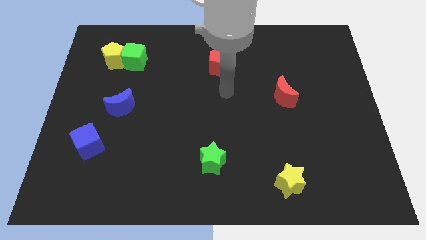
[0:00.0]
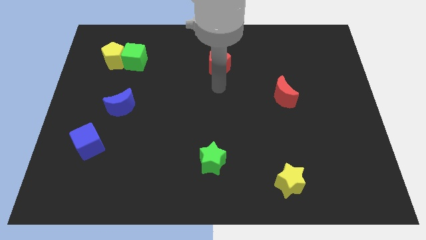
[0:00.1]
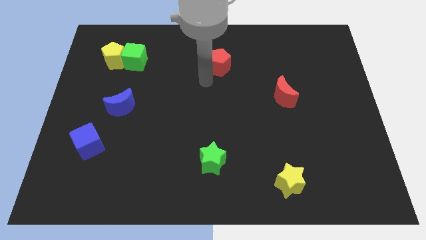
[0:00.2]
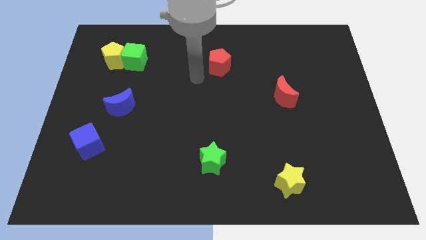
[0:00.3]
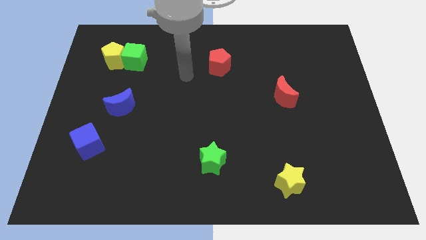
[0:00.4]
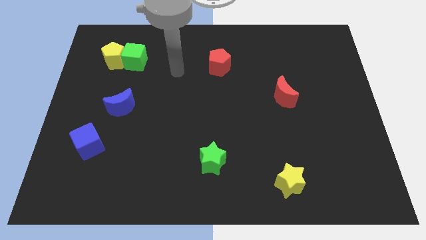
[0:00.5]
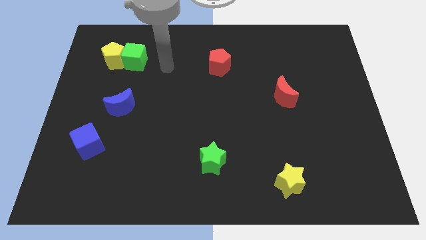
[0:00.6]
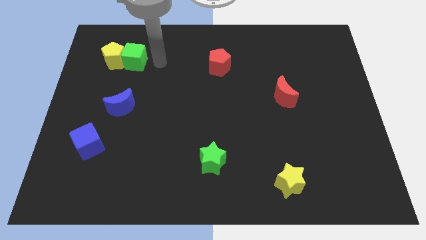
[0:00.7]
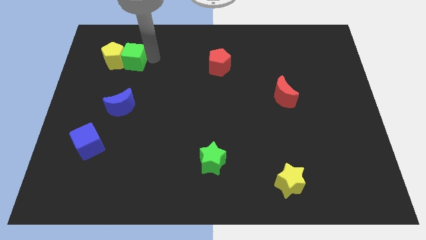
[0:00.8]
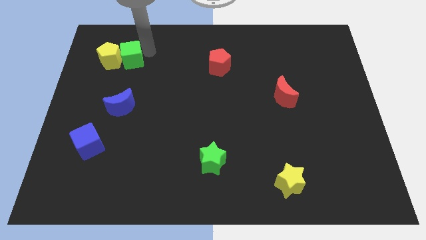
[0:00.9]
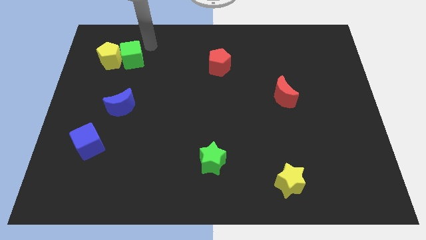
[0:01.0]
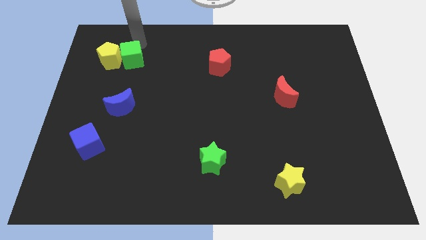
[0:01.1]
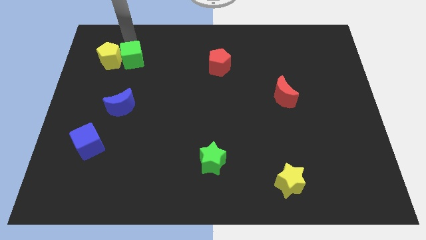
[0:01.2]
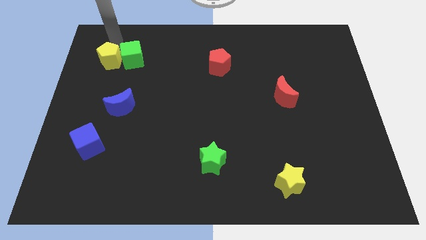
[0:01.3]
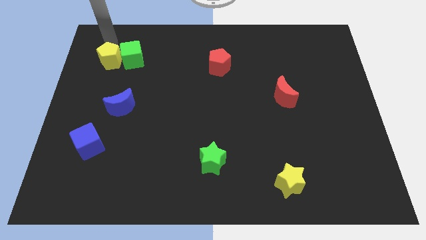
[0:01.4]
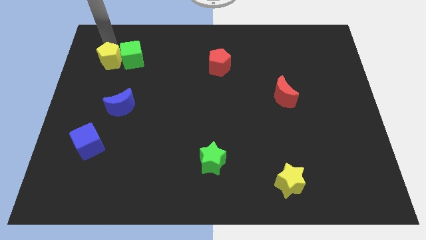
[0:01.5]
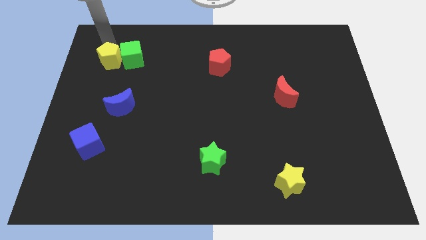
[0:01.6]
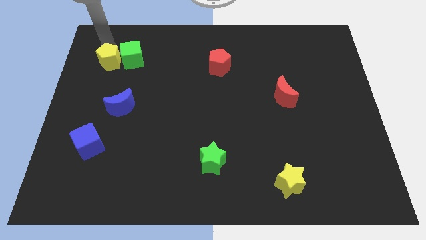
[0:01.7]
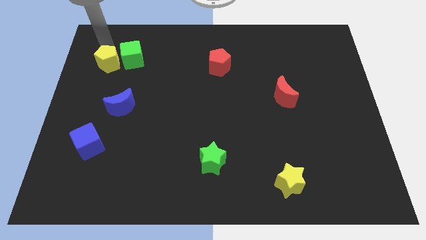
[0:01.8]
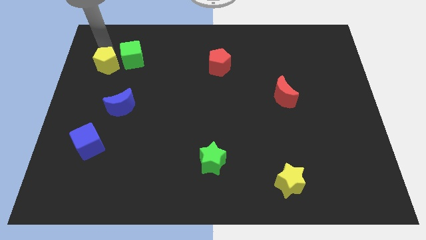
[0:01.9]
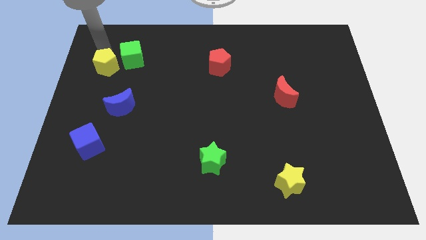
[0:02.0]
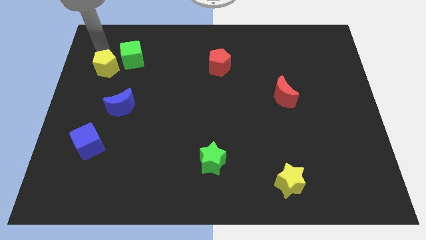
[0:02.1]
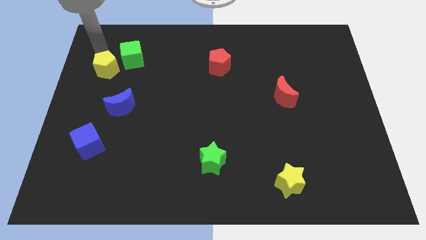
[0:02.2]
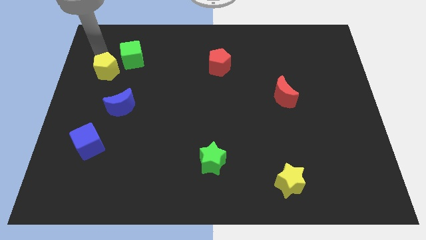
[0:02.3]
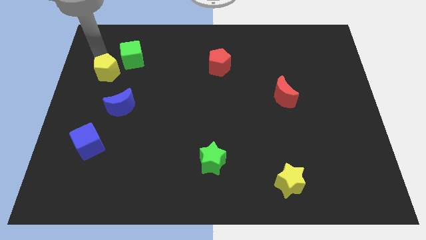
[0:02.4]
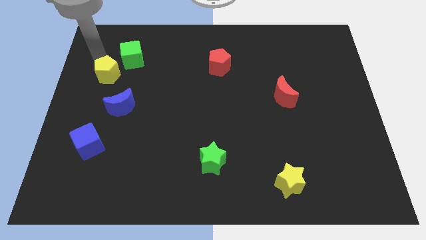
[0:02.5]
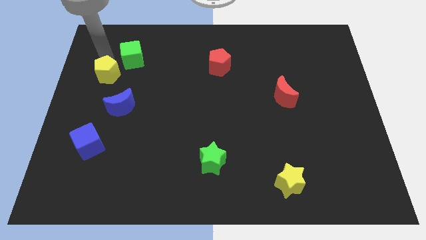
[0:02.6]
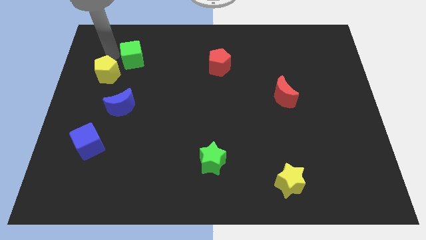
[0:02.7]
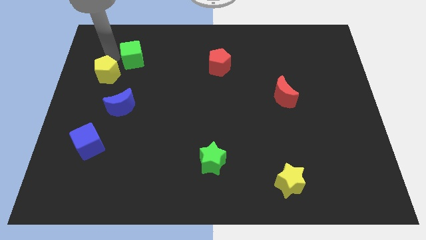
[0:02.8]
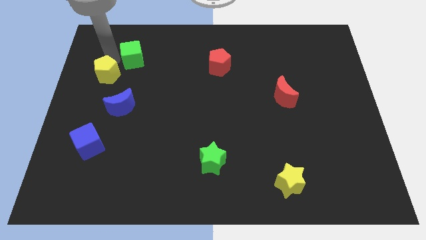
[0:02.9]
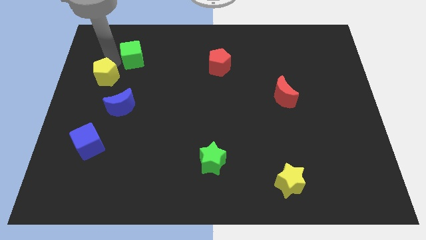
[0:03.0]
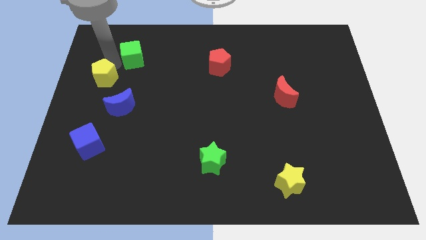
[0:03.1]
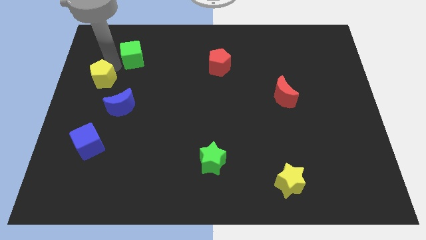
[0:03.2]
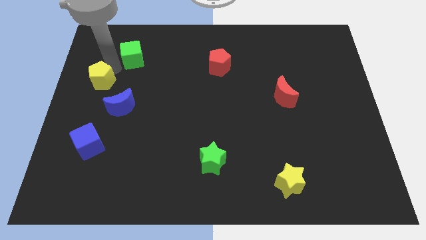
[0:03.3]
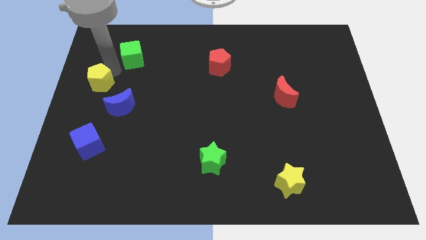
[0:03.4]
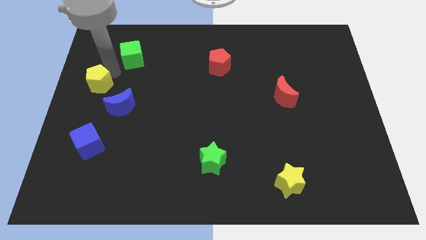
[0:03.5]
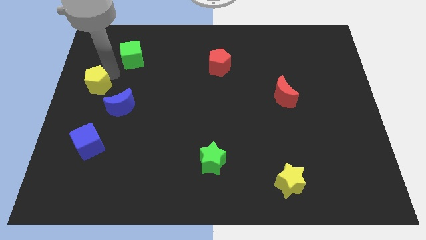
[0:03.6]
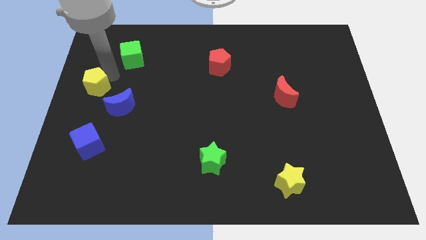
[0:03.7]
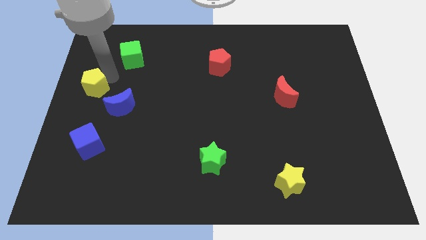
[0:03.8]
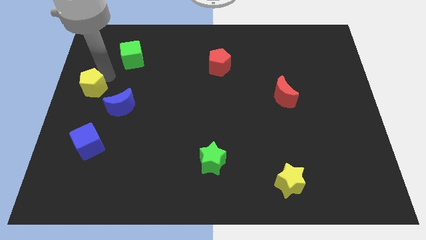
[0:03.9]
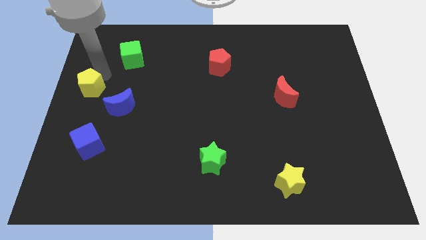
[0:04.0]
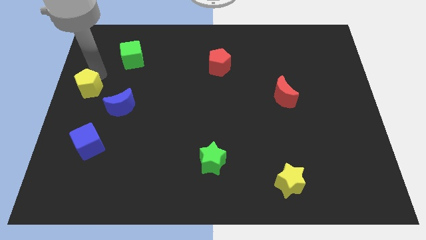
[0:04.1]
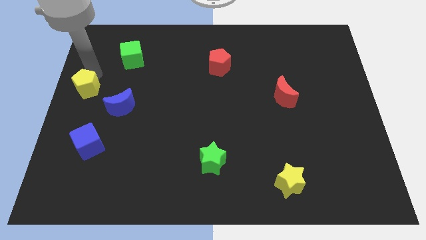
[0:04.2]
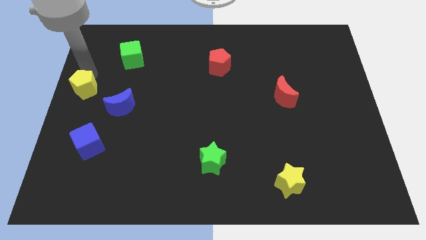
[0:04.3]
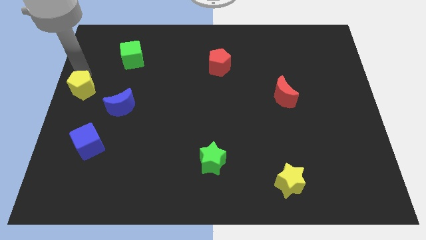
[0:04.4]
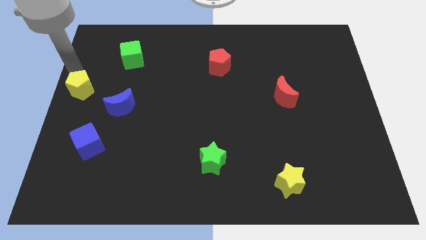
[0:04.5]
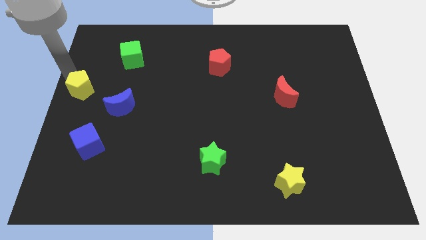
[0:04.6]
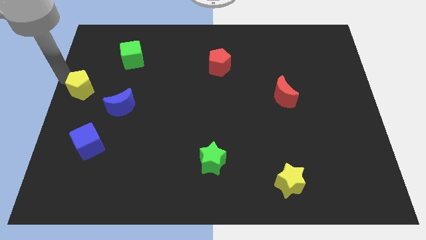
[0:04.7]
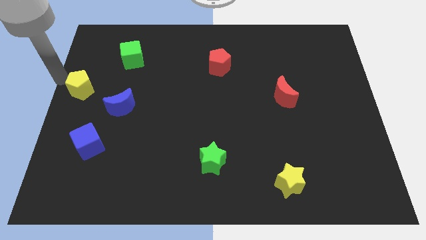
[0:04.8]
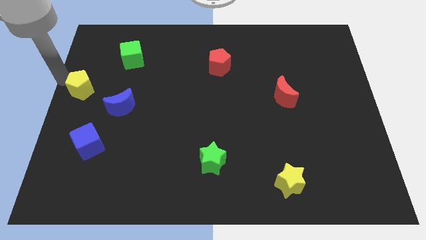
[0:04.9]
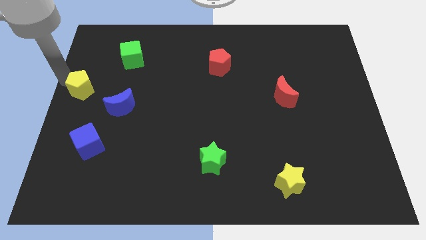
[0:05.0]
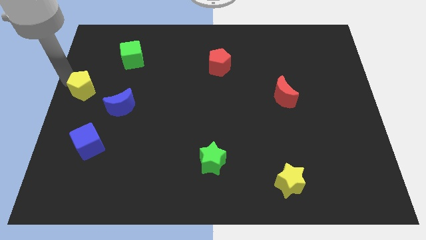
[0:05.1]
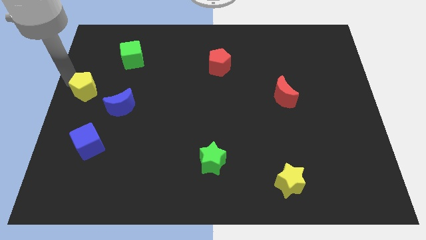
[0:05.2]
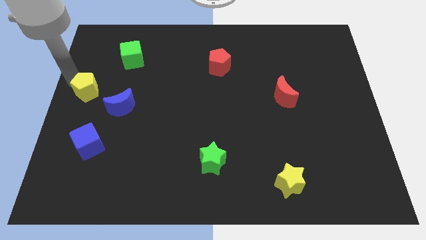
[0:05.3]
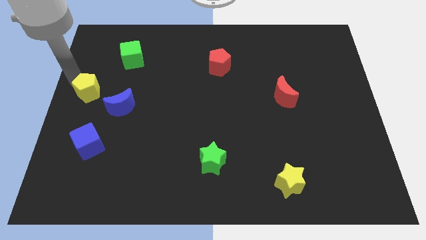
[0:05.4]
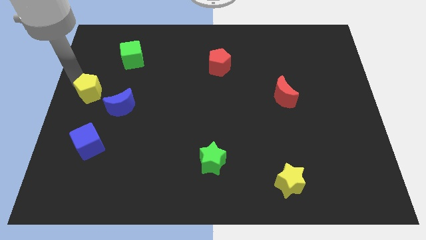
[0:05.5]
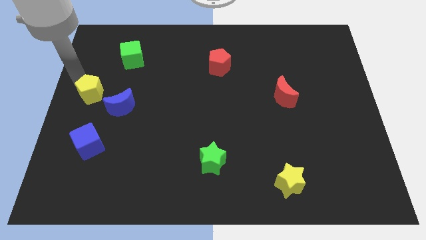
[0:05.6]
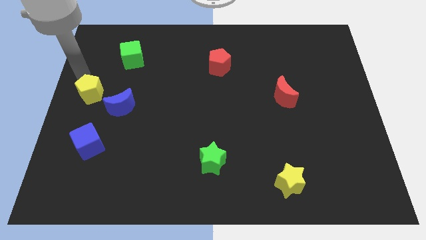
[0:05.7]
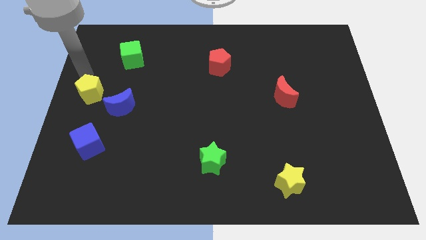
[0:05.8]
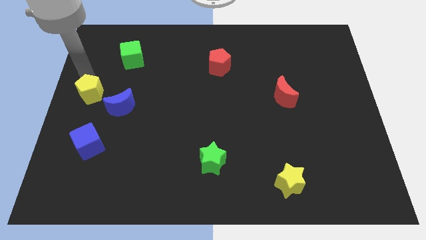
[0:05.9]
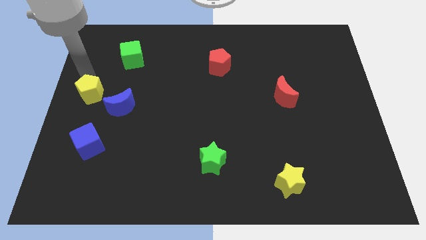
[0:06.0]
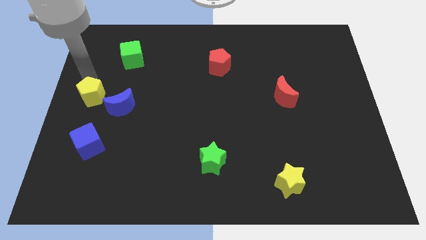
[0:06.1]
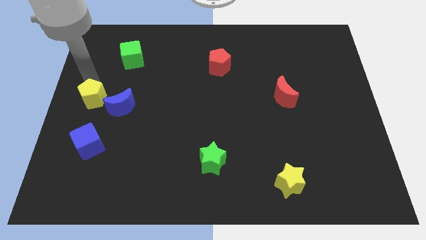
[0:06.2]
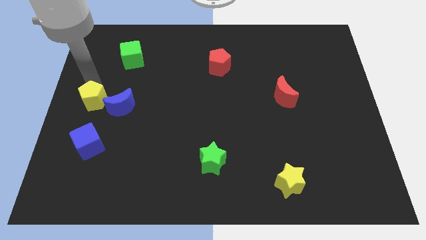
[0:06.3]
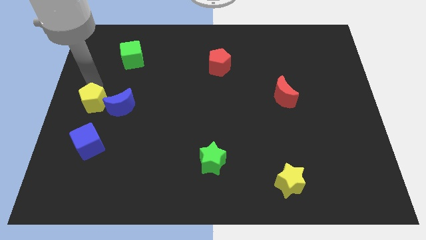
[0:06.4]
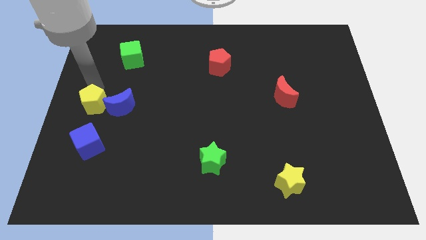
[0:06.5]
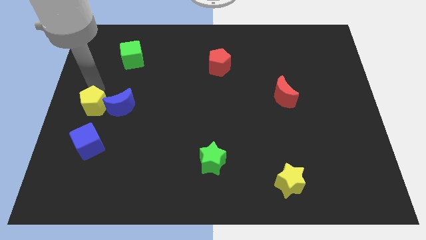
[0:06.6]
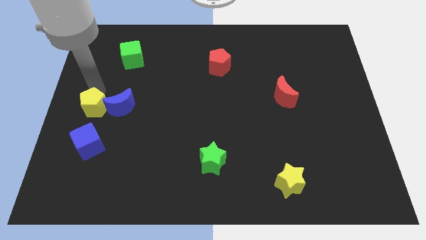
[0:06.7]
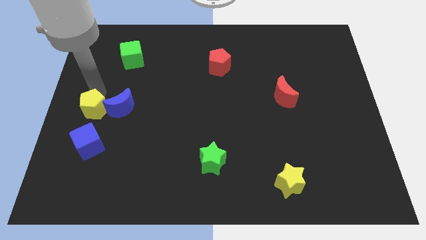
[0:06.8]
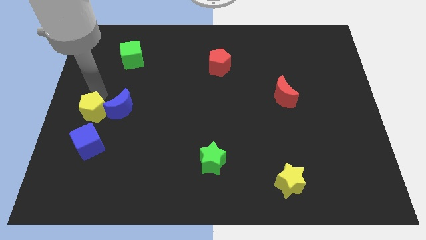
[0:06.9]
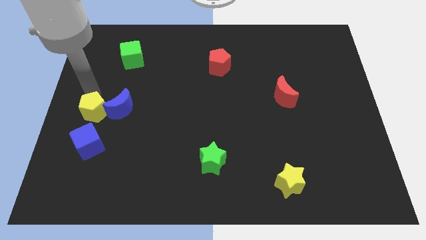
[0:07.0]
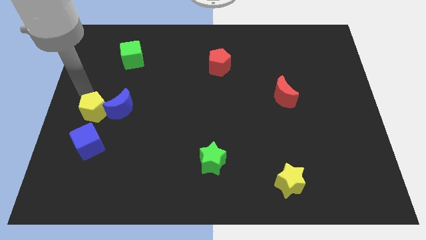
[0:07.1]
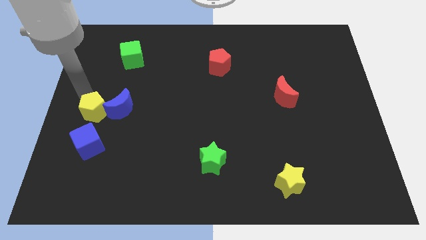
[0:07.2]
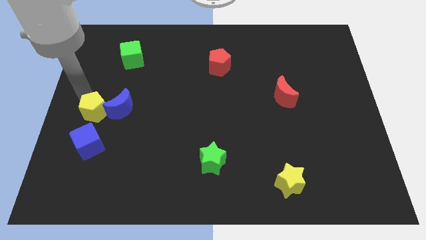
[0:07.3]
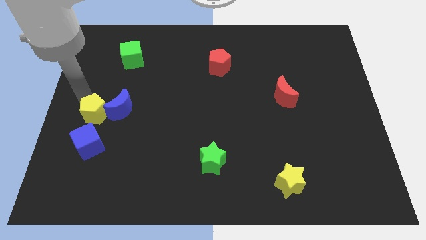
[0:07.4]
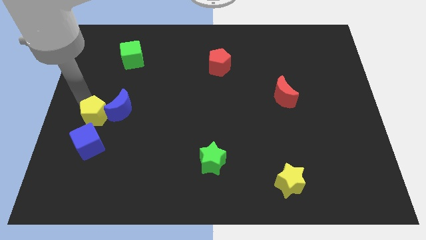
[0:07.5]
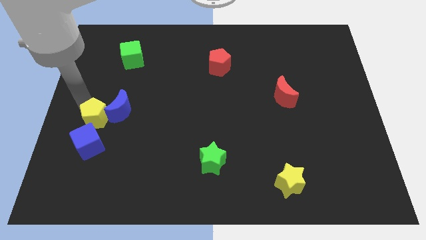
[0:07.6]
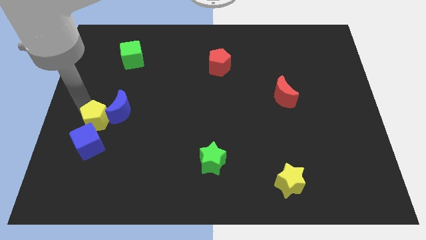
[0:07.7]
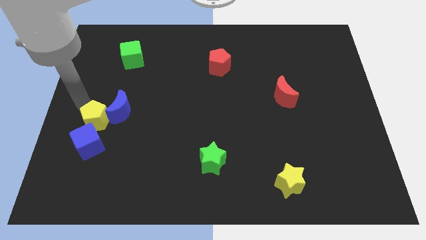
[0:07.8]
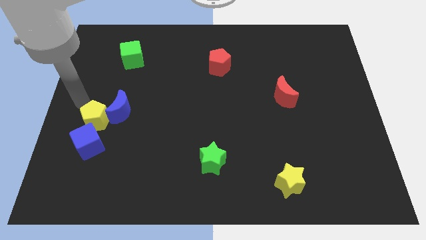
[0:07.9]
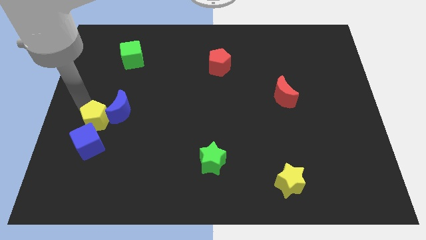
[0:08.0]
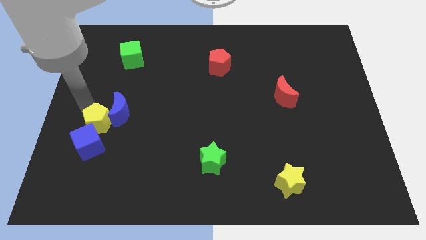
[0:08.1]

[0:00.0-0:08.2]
push the yellow pentagon downwards
